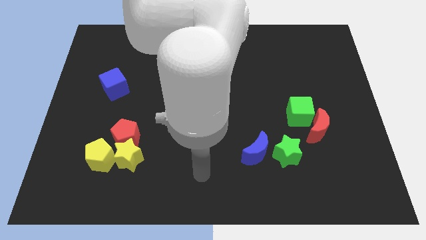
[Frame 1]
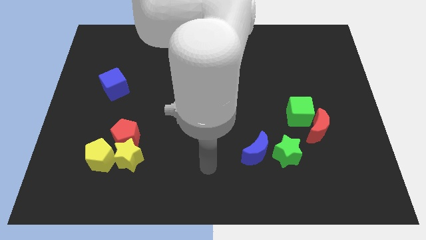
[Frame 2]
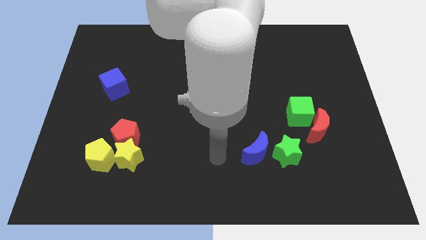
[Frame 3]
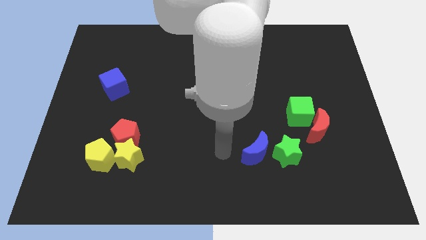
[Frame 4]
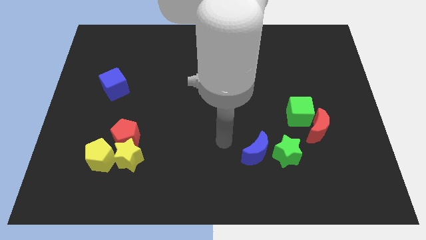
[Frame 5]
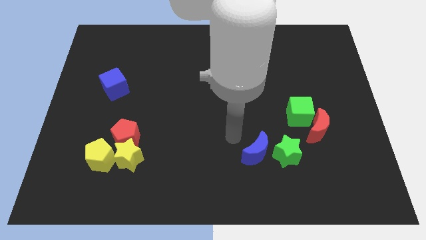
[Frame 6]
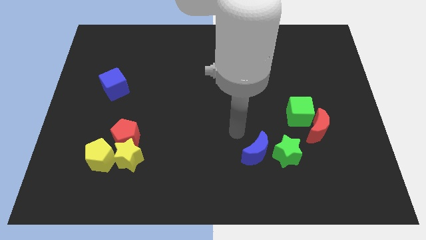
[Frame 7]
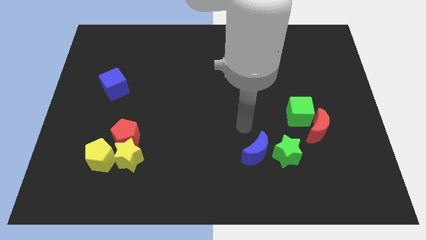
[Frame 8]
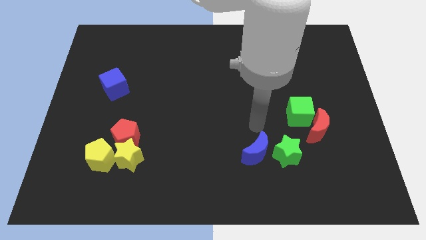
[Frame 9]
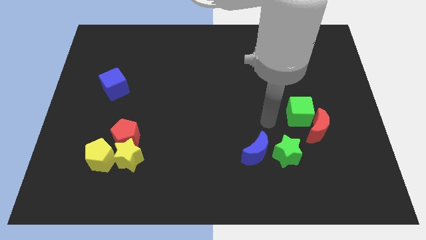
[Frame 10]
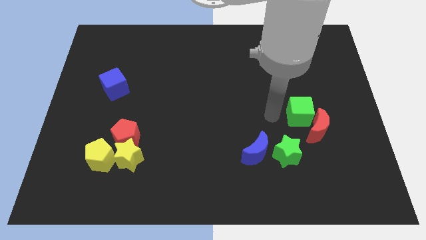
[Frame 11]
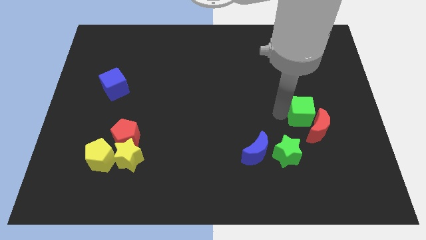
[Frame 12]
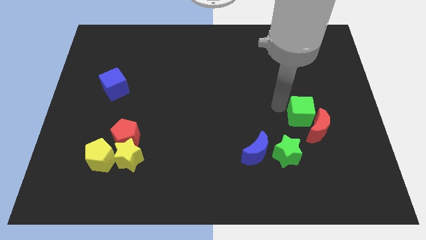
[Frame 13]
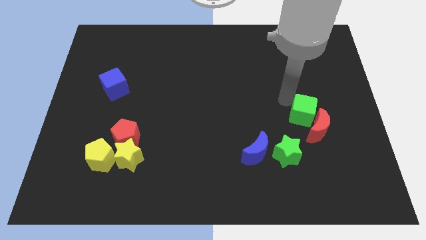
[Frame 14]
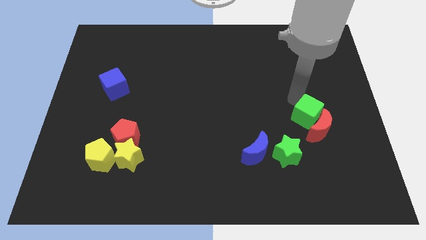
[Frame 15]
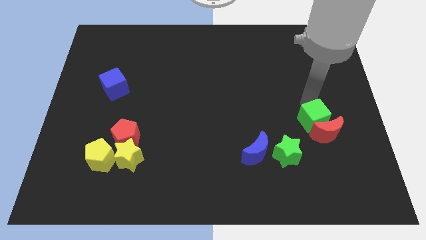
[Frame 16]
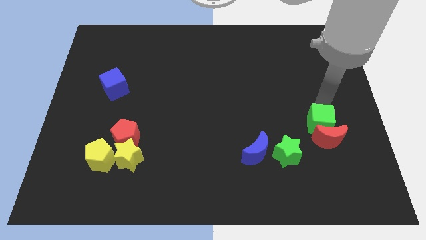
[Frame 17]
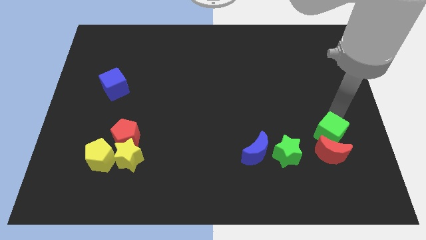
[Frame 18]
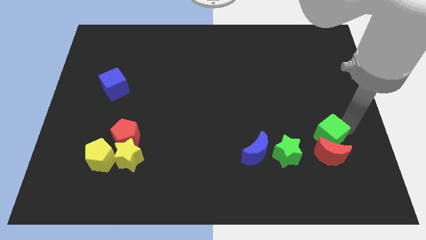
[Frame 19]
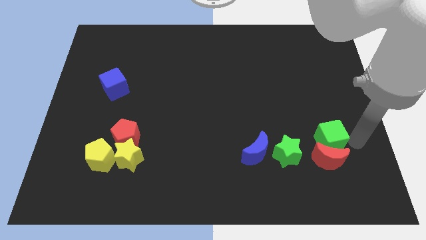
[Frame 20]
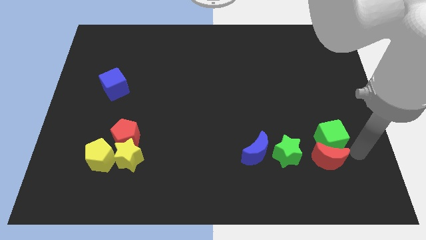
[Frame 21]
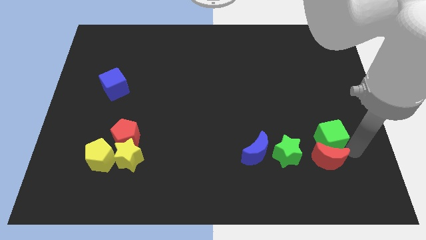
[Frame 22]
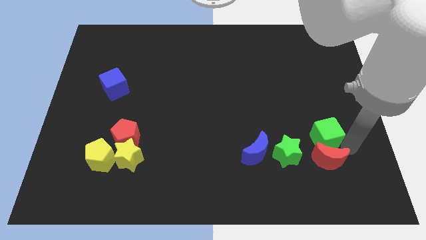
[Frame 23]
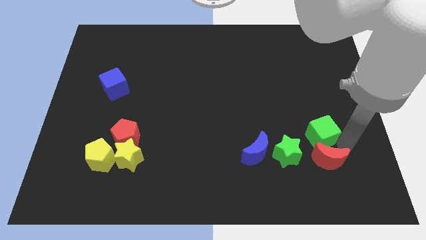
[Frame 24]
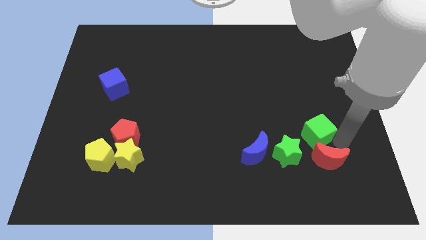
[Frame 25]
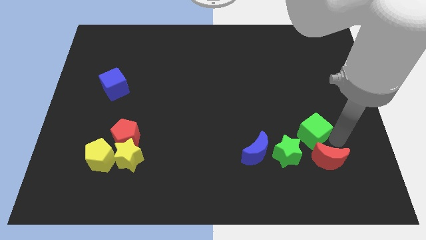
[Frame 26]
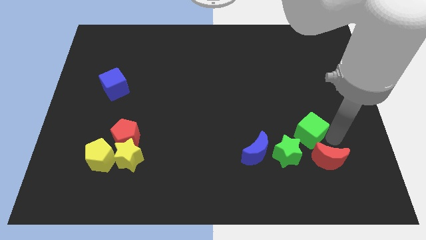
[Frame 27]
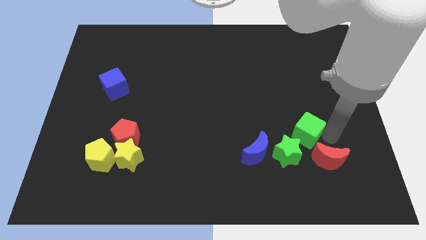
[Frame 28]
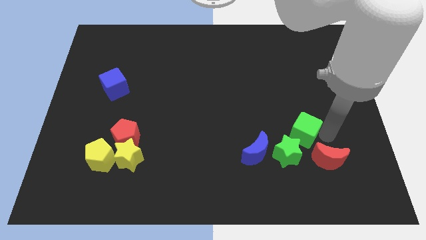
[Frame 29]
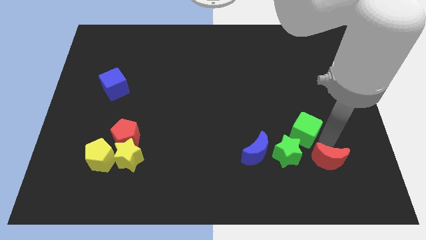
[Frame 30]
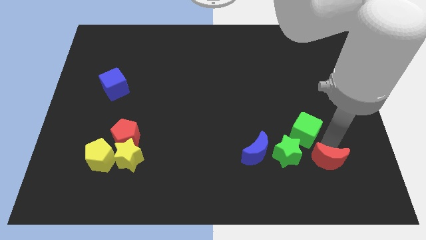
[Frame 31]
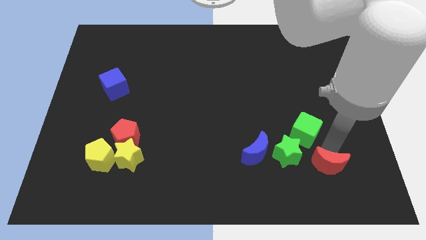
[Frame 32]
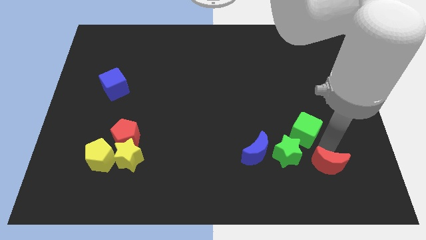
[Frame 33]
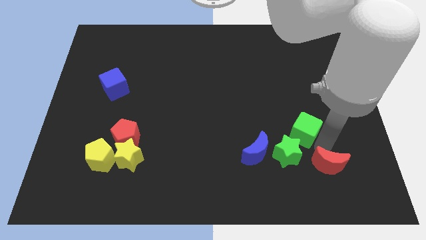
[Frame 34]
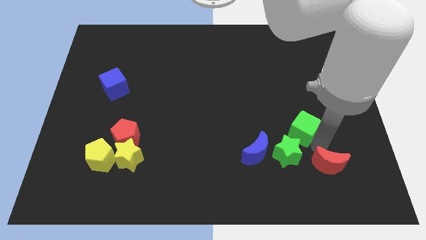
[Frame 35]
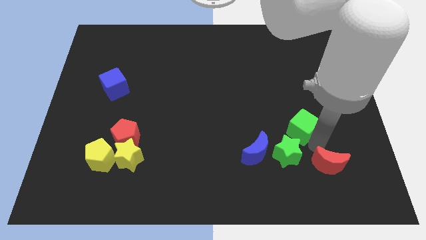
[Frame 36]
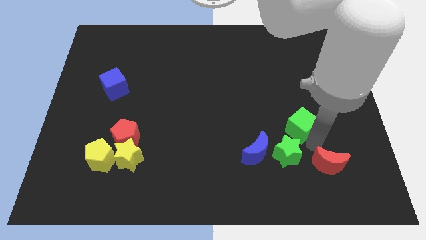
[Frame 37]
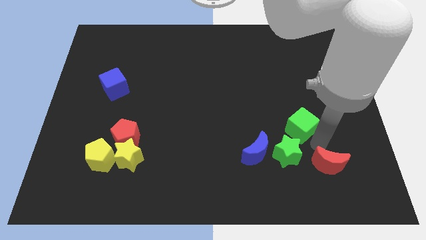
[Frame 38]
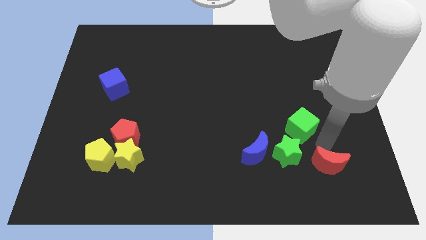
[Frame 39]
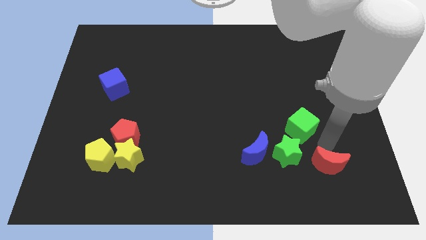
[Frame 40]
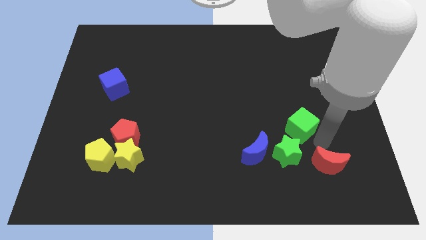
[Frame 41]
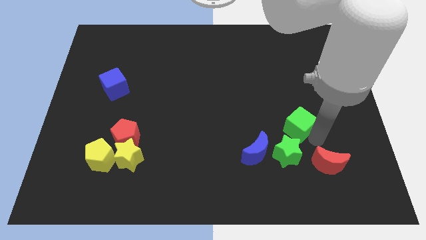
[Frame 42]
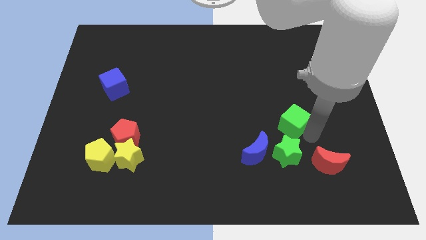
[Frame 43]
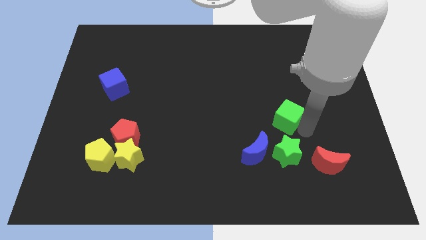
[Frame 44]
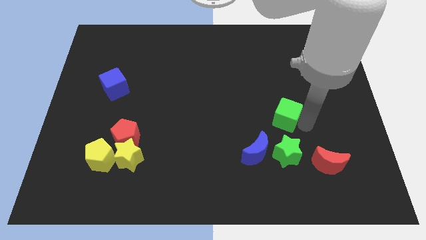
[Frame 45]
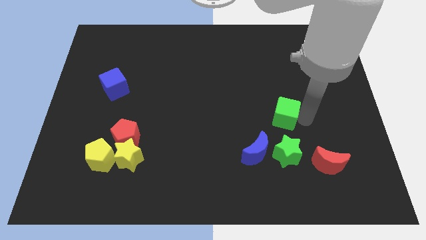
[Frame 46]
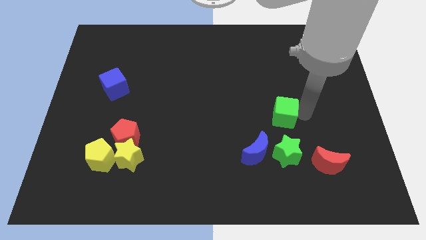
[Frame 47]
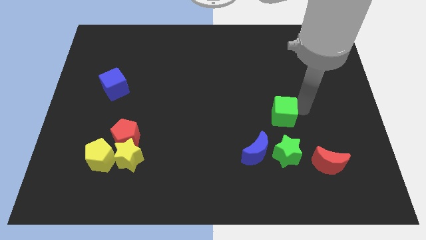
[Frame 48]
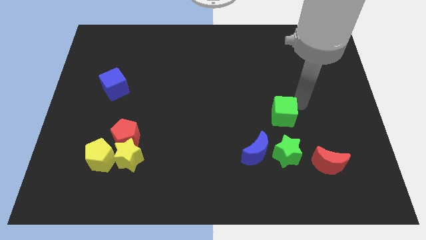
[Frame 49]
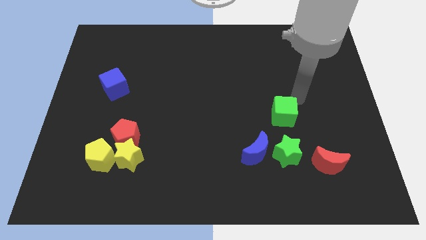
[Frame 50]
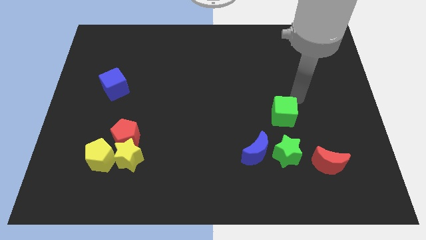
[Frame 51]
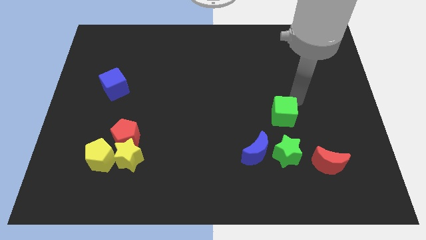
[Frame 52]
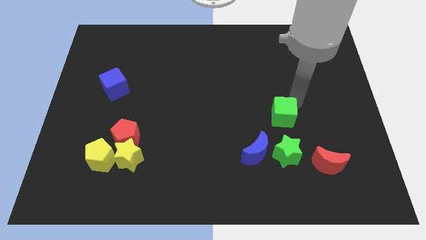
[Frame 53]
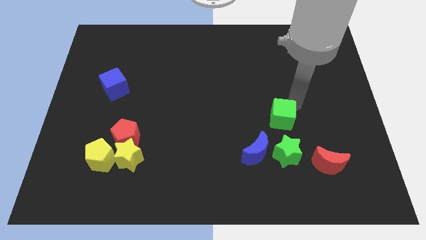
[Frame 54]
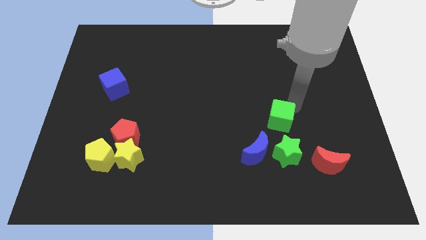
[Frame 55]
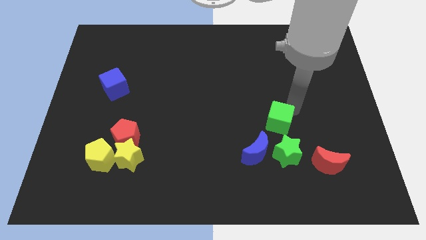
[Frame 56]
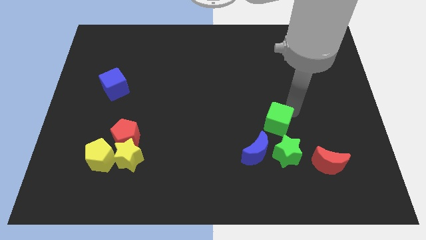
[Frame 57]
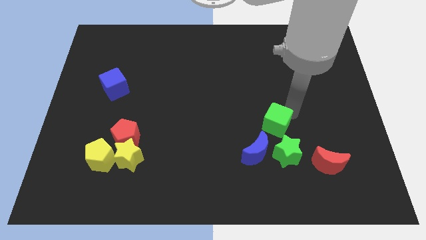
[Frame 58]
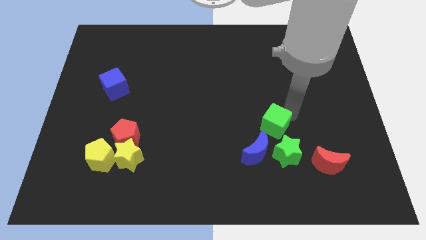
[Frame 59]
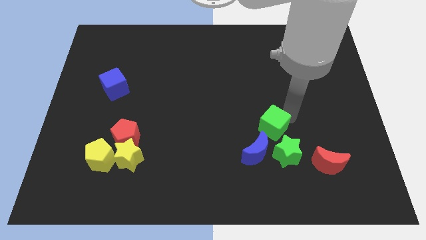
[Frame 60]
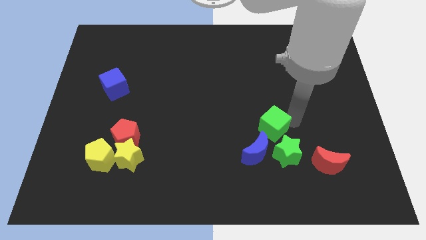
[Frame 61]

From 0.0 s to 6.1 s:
slightly push the green cube downwards and to the left diagonally

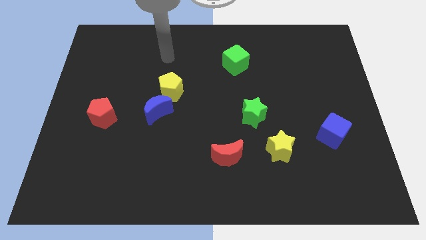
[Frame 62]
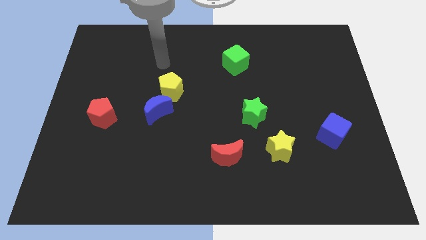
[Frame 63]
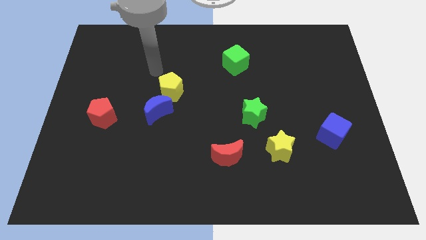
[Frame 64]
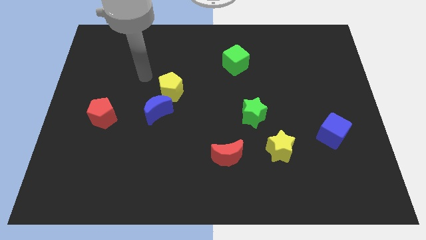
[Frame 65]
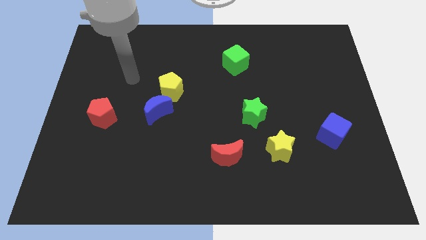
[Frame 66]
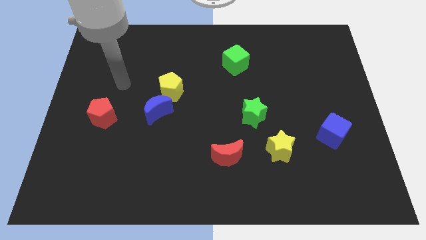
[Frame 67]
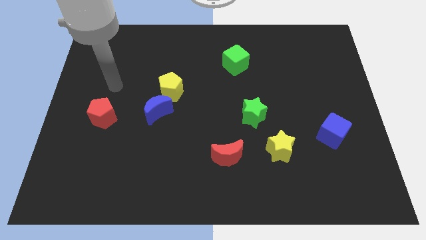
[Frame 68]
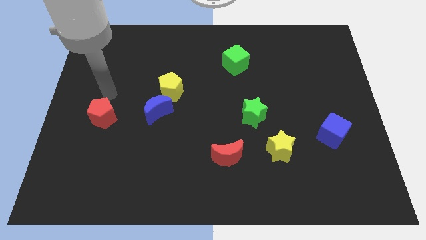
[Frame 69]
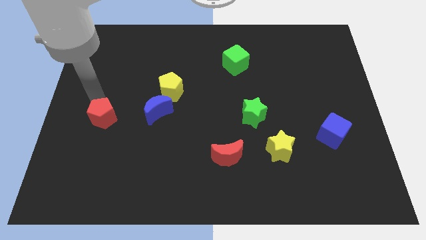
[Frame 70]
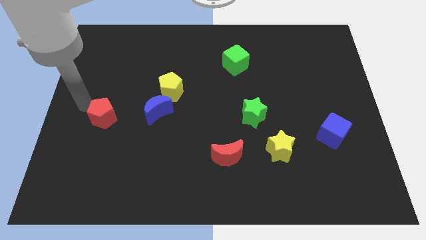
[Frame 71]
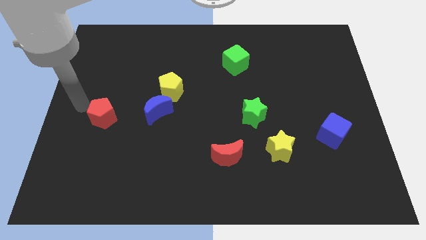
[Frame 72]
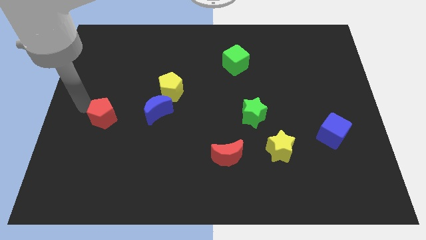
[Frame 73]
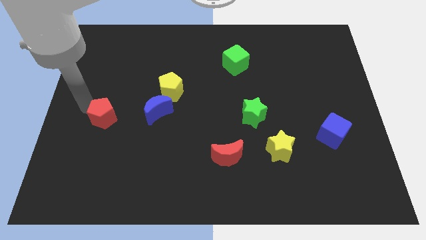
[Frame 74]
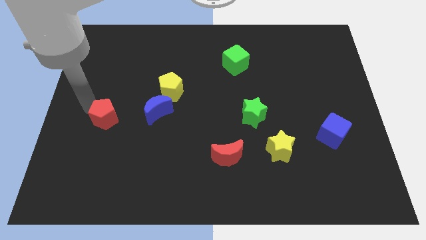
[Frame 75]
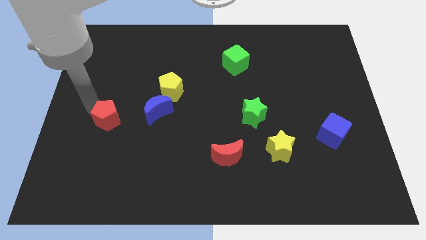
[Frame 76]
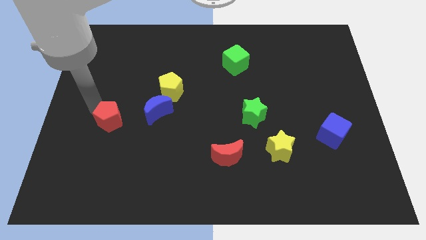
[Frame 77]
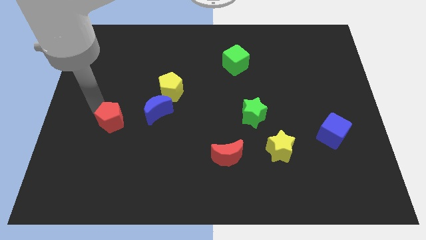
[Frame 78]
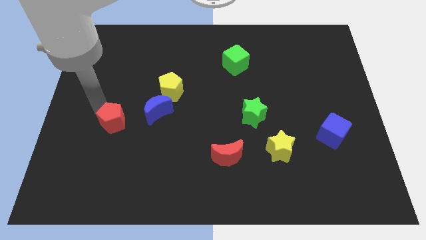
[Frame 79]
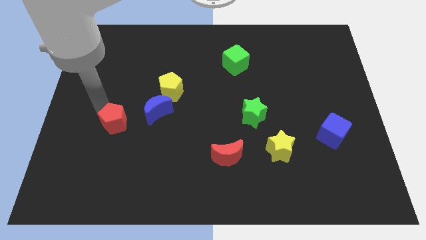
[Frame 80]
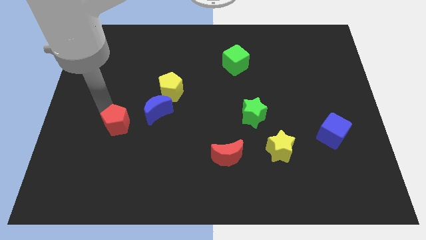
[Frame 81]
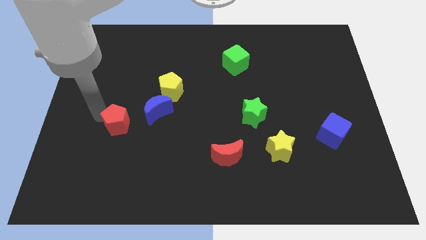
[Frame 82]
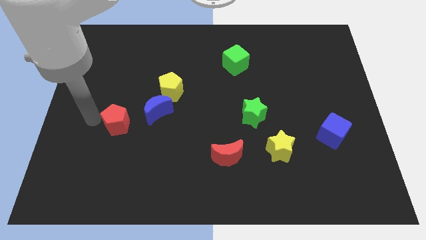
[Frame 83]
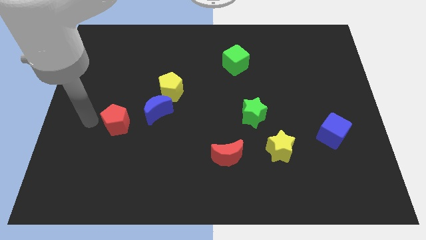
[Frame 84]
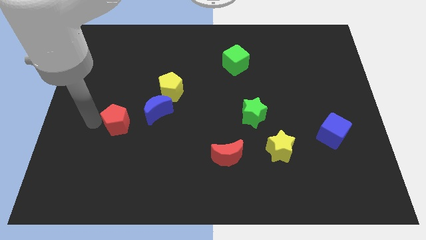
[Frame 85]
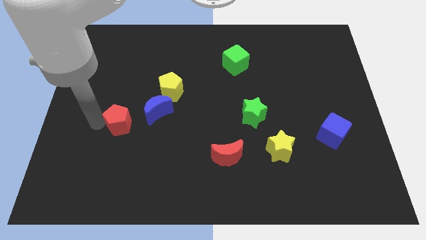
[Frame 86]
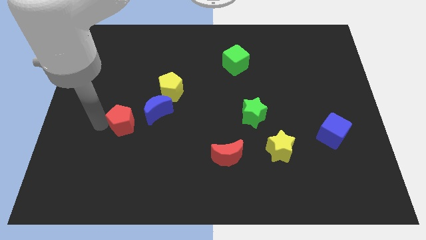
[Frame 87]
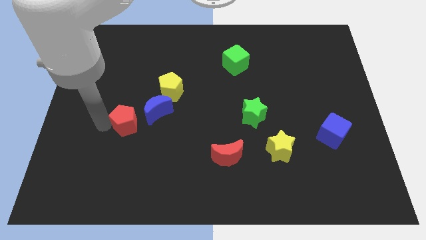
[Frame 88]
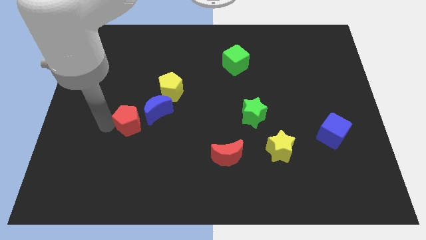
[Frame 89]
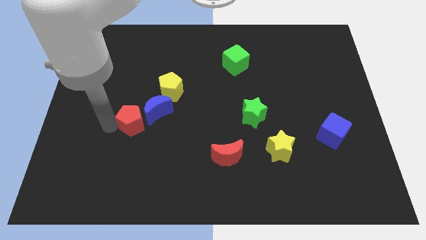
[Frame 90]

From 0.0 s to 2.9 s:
push the red pentagon right a bit
